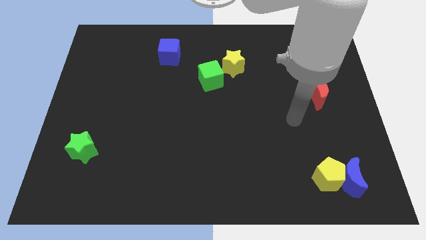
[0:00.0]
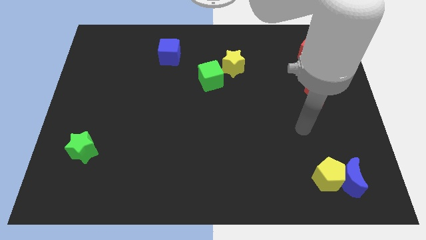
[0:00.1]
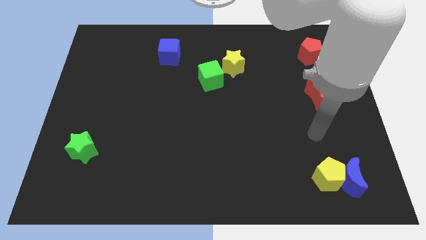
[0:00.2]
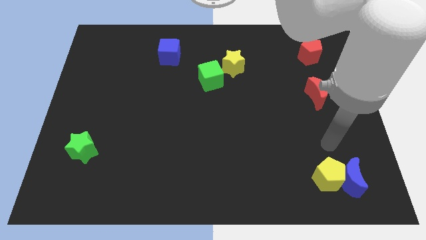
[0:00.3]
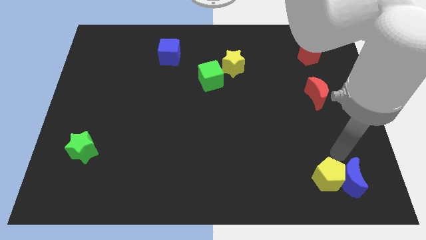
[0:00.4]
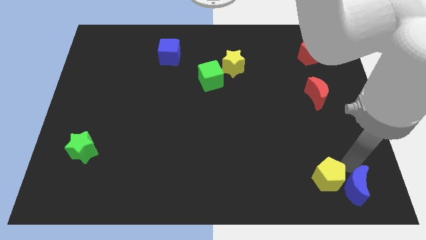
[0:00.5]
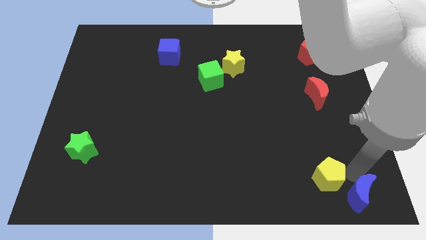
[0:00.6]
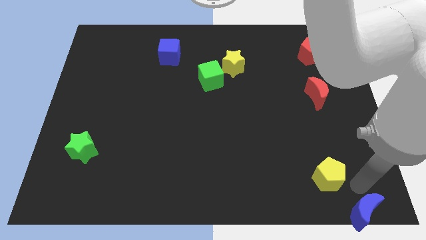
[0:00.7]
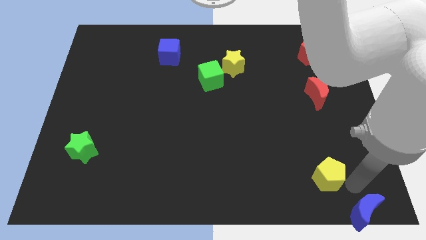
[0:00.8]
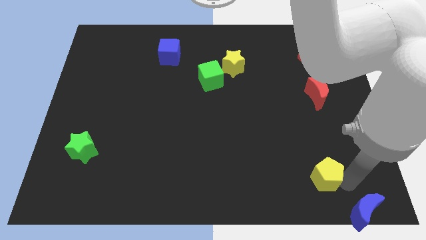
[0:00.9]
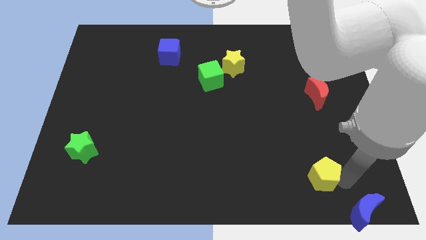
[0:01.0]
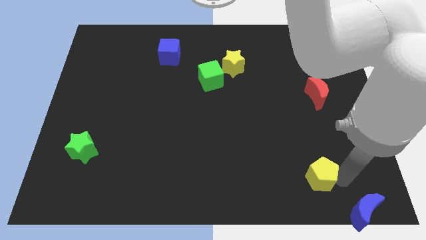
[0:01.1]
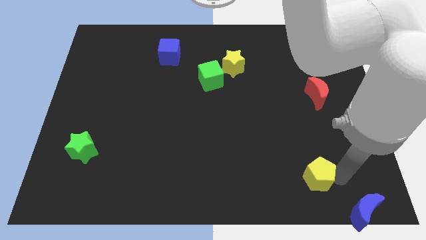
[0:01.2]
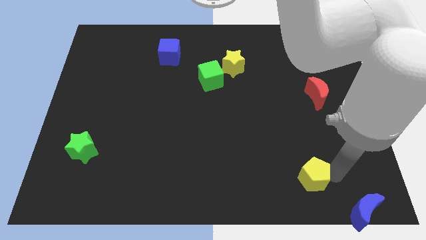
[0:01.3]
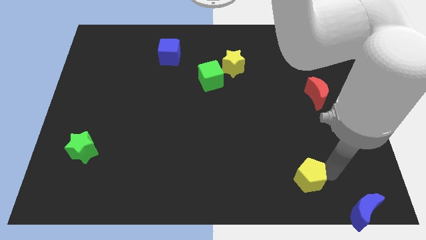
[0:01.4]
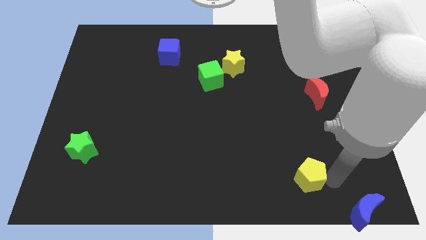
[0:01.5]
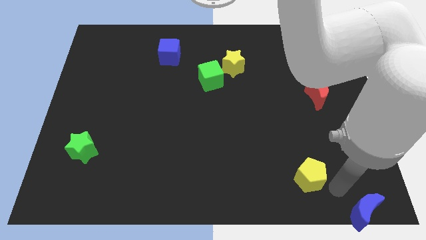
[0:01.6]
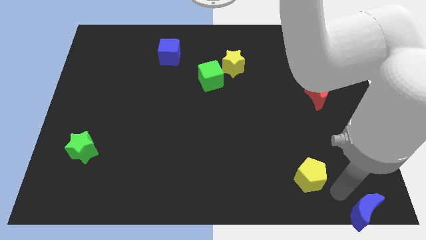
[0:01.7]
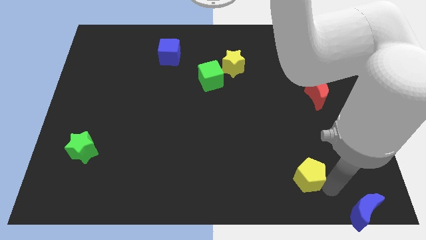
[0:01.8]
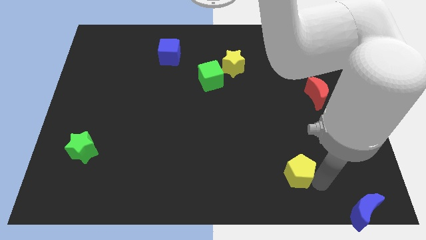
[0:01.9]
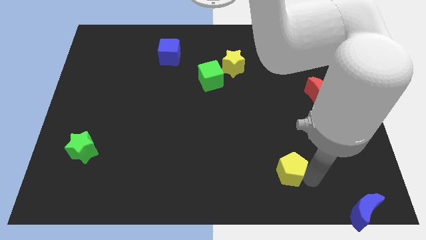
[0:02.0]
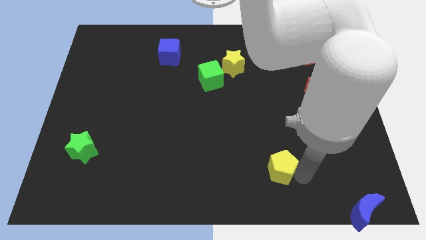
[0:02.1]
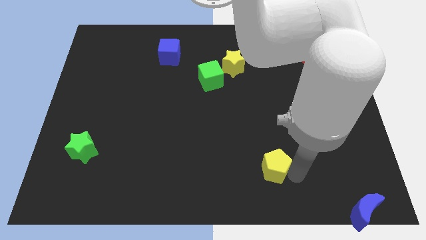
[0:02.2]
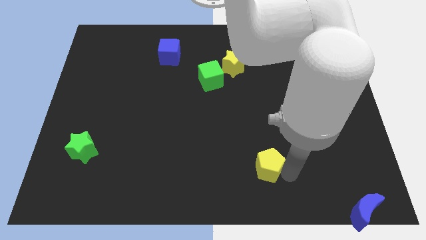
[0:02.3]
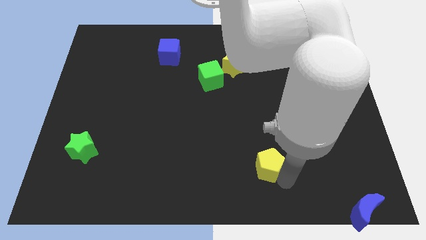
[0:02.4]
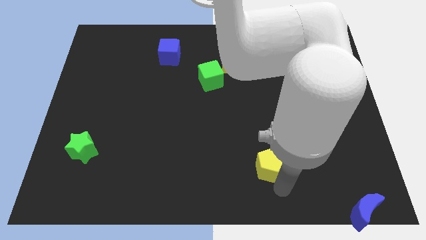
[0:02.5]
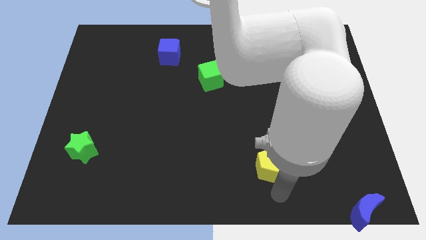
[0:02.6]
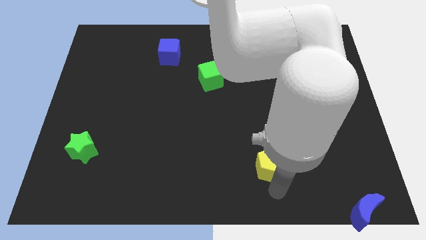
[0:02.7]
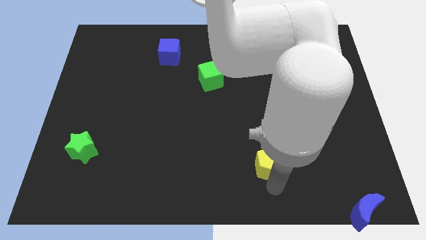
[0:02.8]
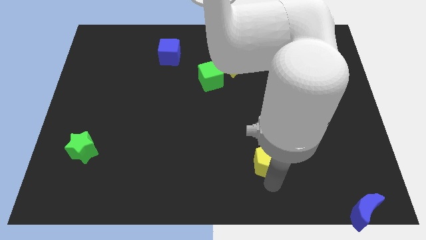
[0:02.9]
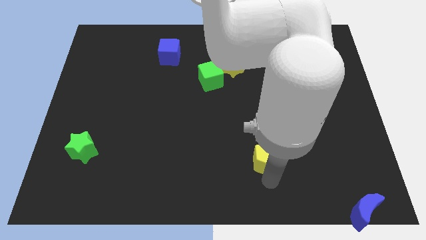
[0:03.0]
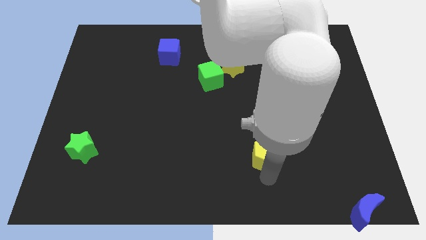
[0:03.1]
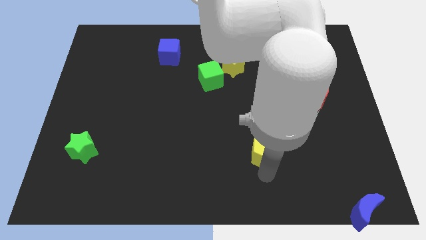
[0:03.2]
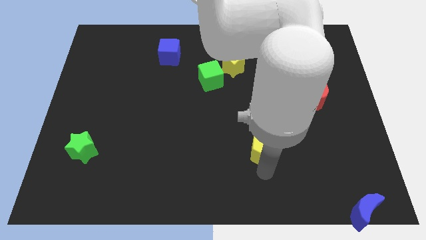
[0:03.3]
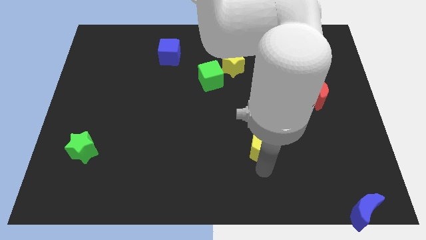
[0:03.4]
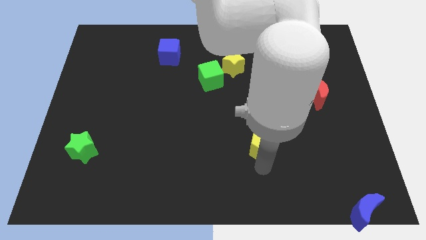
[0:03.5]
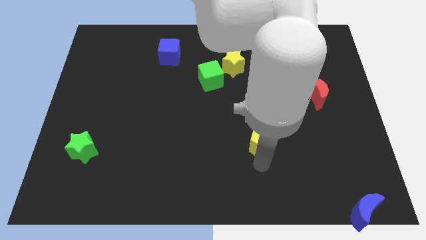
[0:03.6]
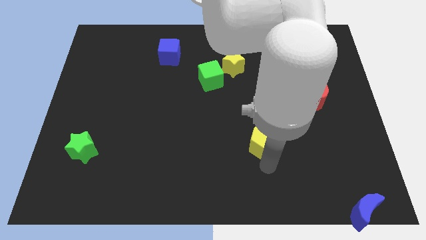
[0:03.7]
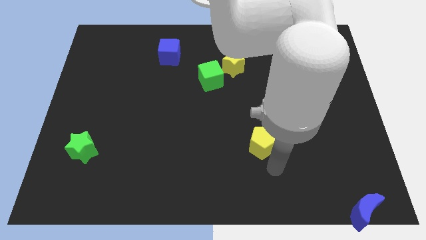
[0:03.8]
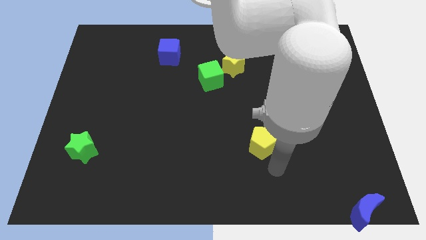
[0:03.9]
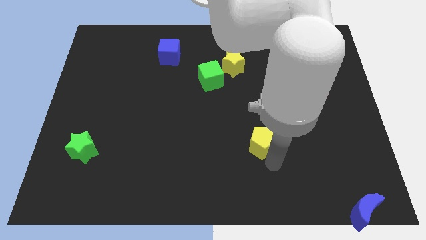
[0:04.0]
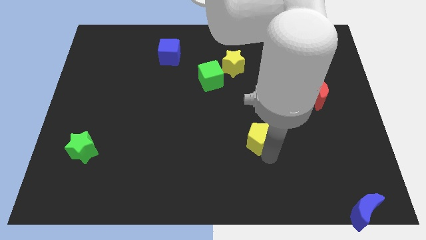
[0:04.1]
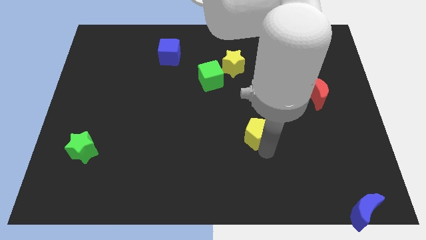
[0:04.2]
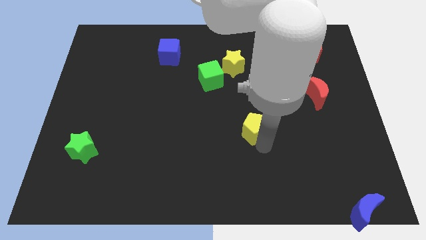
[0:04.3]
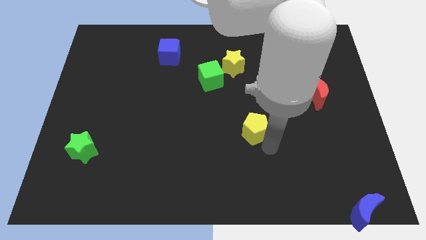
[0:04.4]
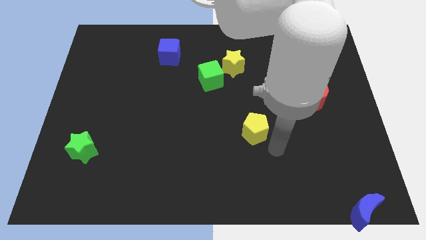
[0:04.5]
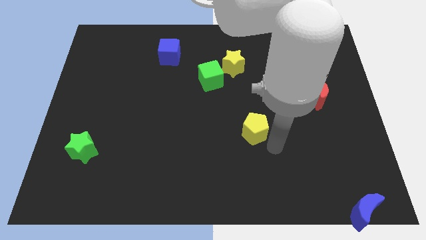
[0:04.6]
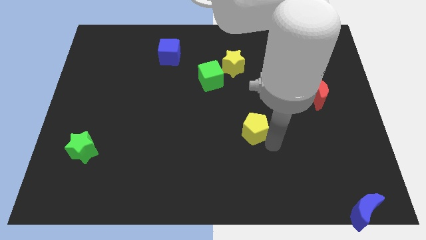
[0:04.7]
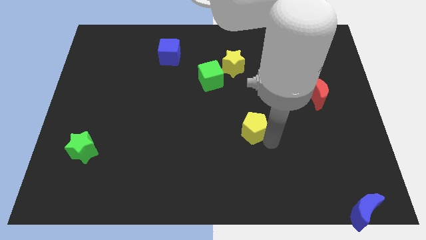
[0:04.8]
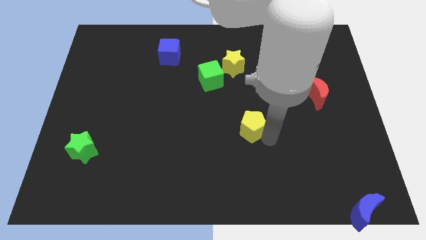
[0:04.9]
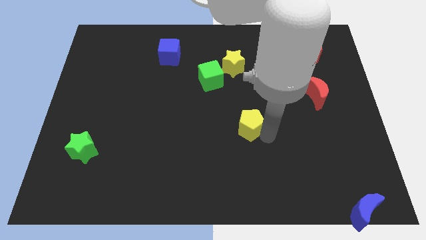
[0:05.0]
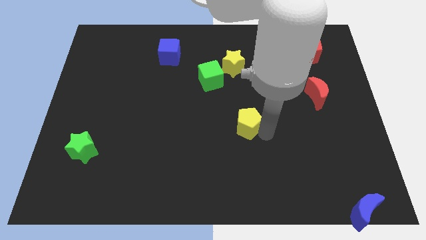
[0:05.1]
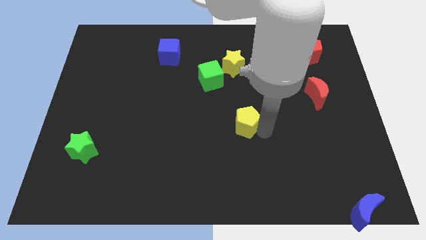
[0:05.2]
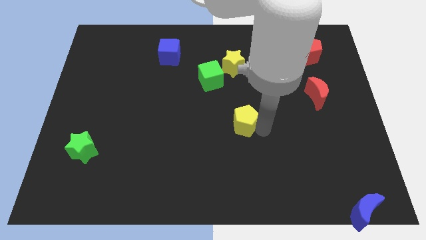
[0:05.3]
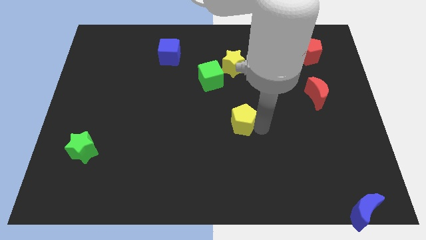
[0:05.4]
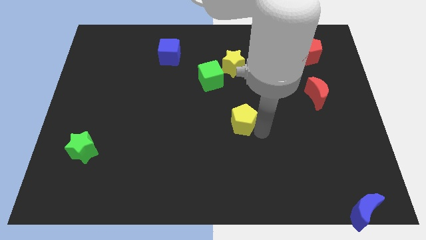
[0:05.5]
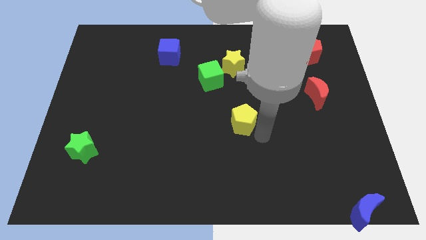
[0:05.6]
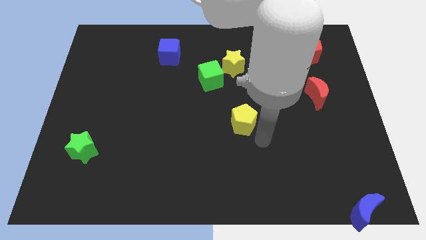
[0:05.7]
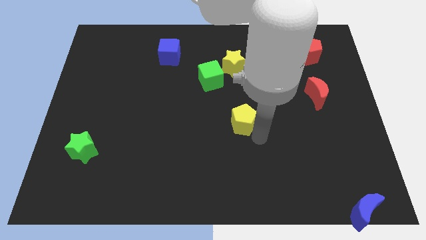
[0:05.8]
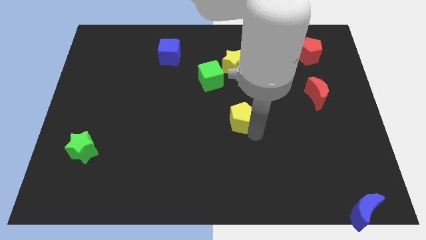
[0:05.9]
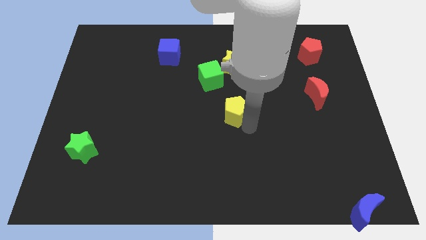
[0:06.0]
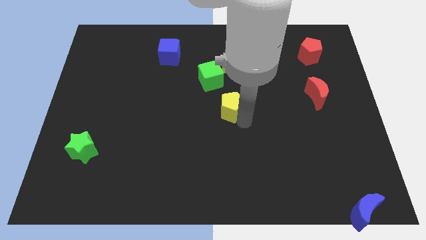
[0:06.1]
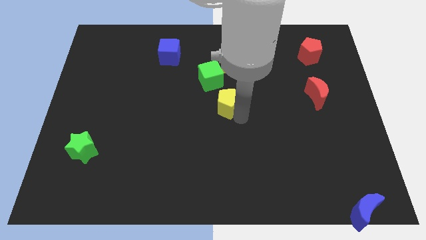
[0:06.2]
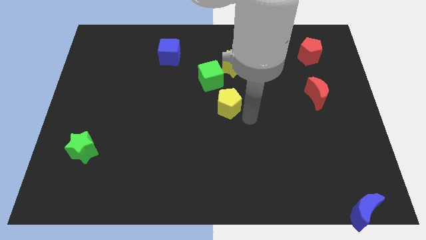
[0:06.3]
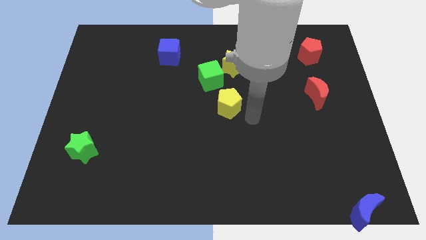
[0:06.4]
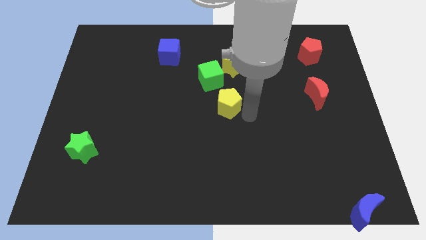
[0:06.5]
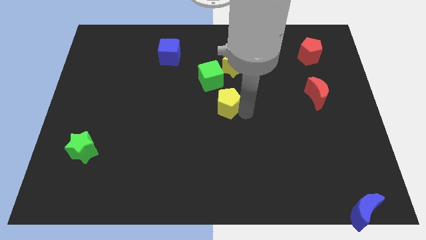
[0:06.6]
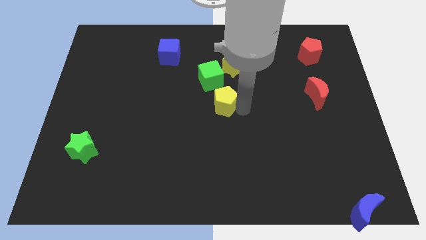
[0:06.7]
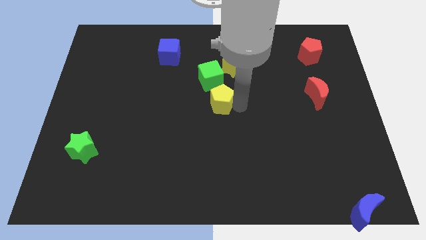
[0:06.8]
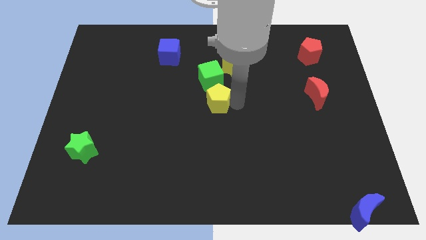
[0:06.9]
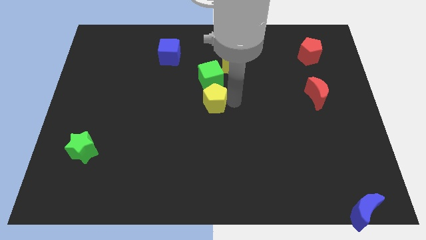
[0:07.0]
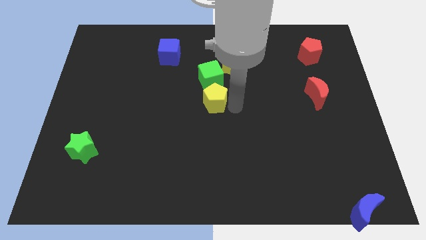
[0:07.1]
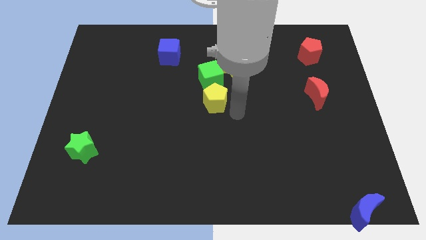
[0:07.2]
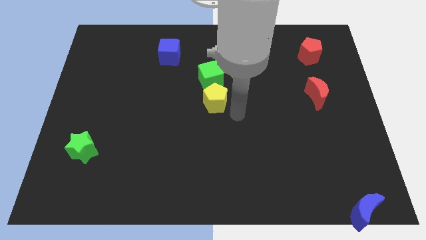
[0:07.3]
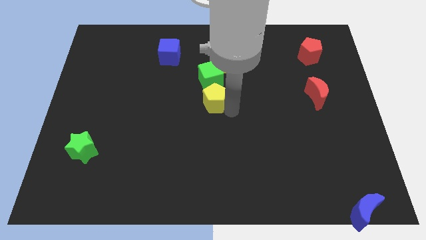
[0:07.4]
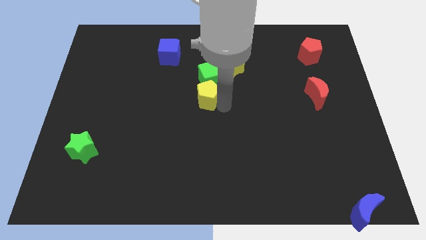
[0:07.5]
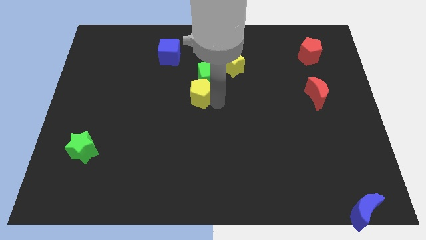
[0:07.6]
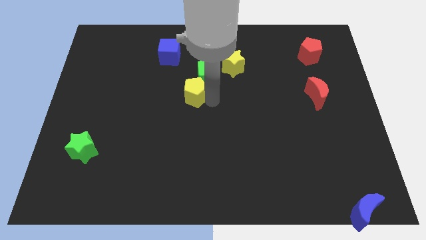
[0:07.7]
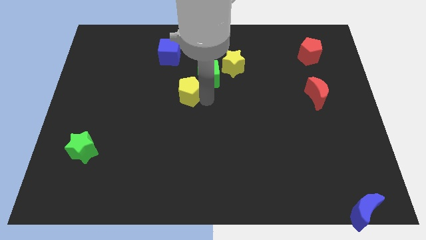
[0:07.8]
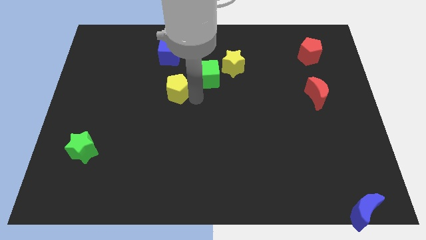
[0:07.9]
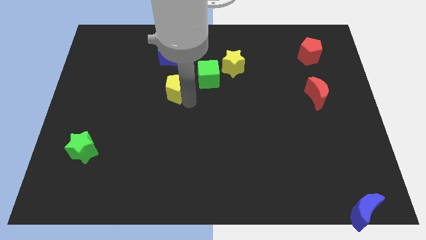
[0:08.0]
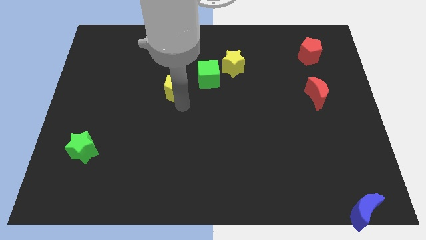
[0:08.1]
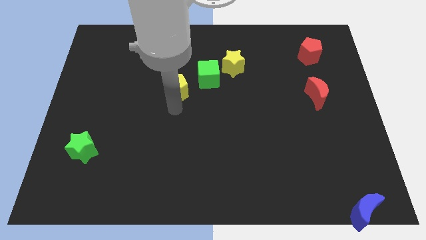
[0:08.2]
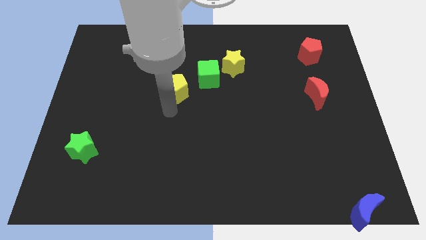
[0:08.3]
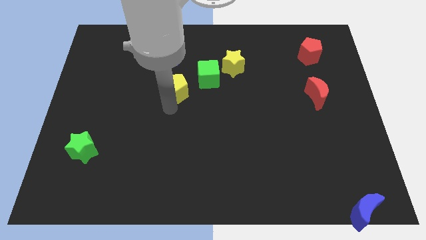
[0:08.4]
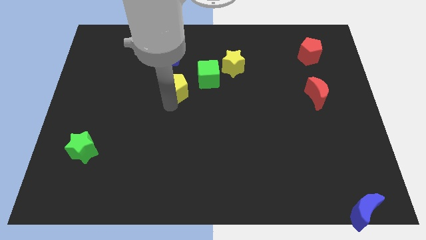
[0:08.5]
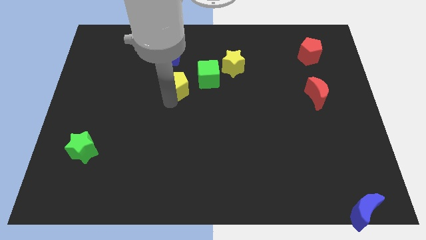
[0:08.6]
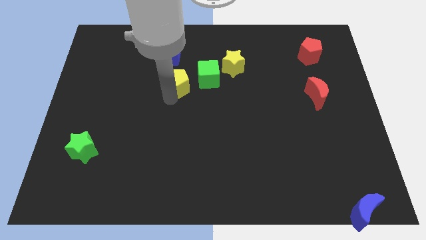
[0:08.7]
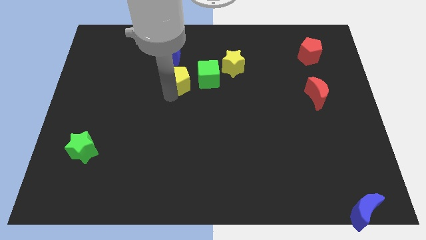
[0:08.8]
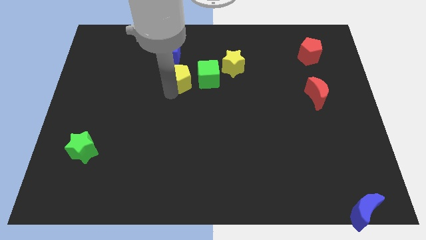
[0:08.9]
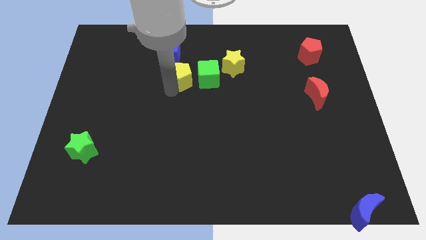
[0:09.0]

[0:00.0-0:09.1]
put the yellow pentagon to the top left of the green cube
